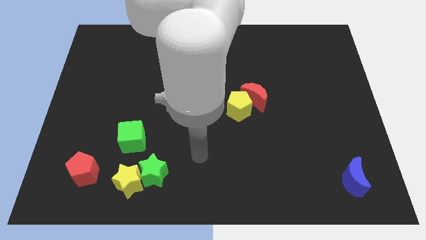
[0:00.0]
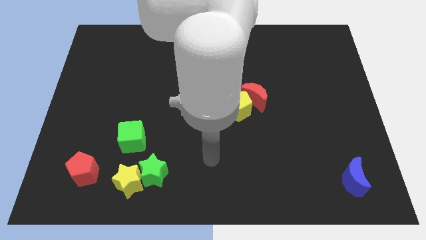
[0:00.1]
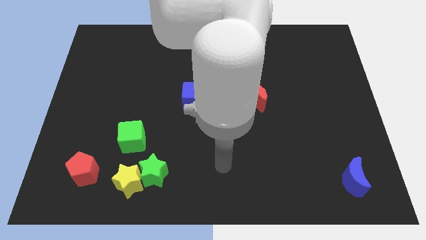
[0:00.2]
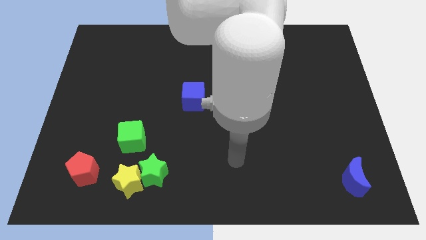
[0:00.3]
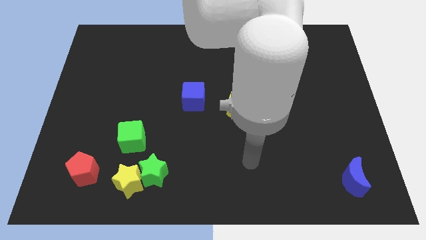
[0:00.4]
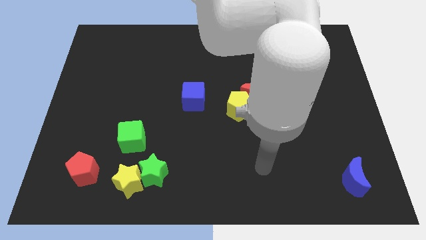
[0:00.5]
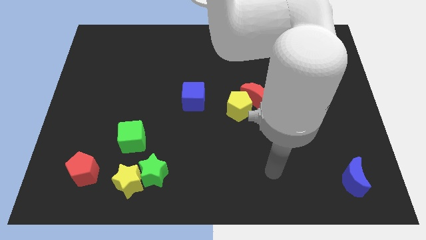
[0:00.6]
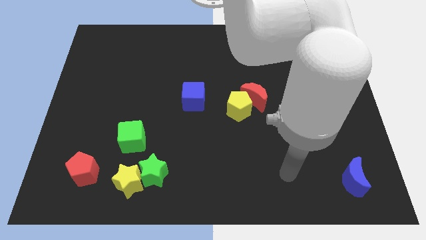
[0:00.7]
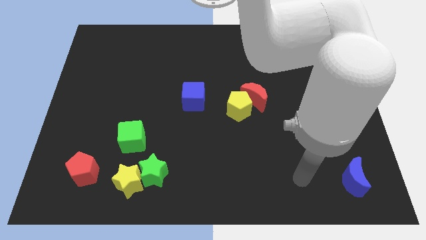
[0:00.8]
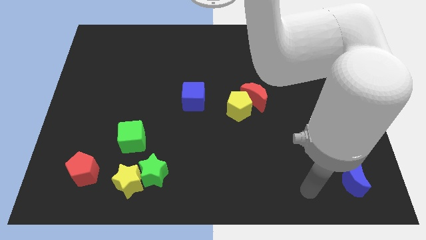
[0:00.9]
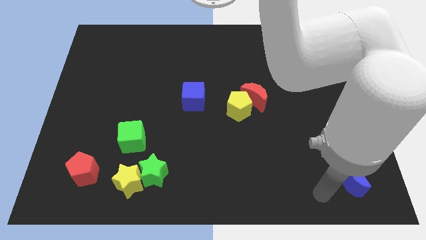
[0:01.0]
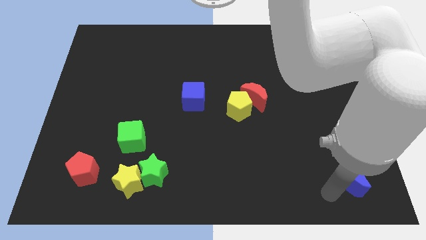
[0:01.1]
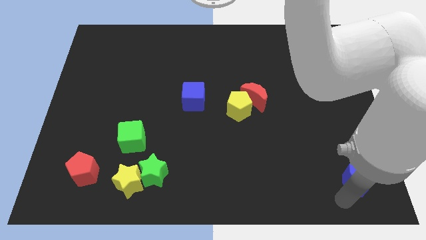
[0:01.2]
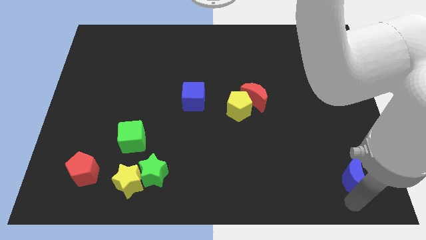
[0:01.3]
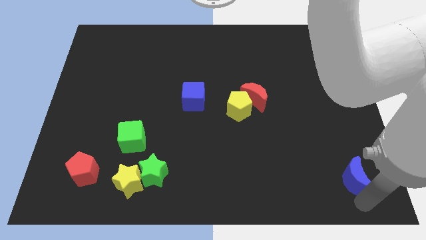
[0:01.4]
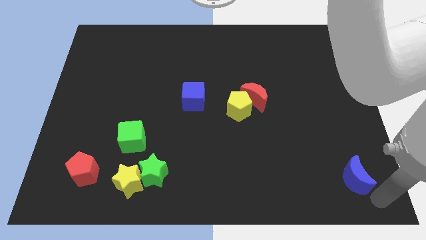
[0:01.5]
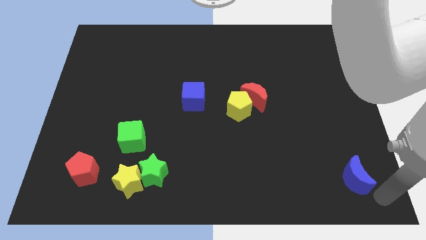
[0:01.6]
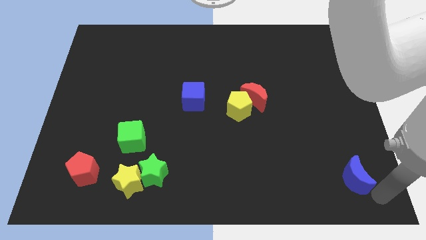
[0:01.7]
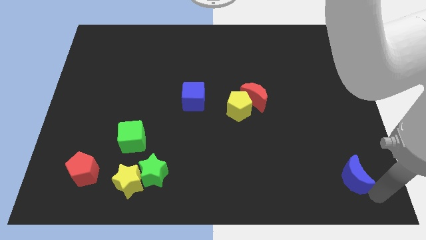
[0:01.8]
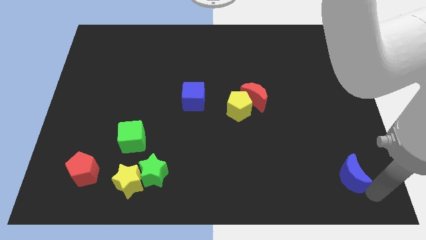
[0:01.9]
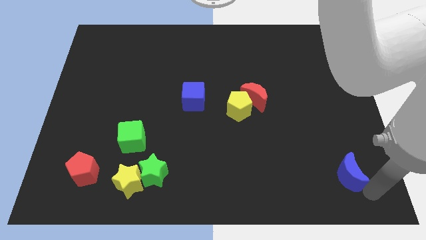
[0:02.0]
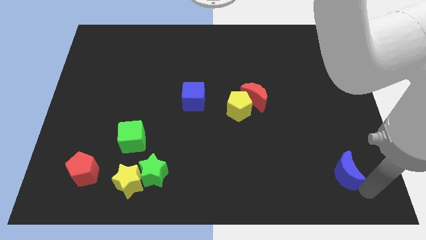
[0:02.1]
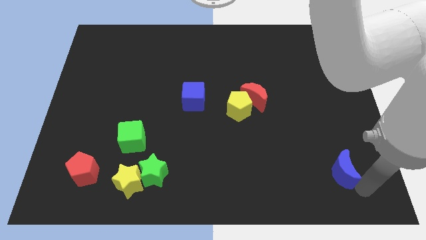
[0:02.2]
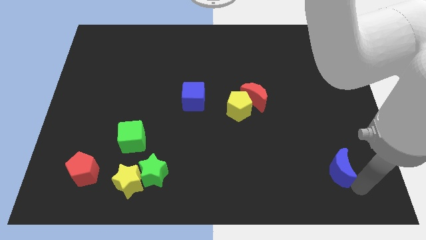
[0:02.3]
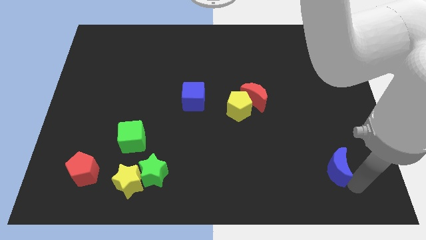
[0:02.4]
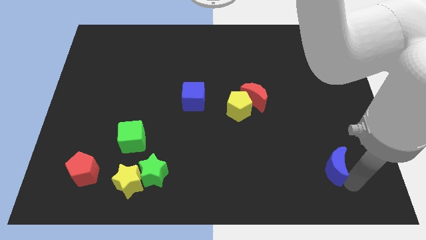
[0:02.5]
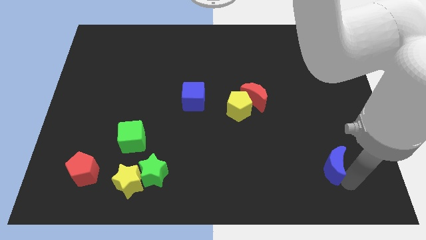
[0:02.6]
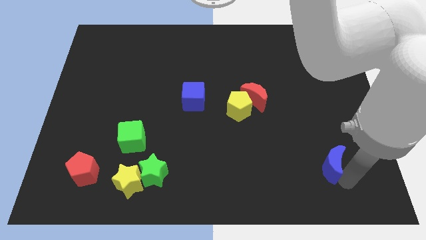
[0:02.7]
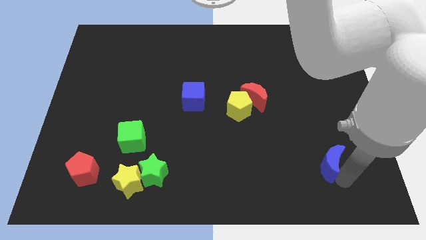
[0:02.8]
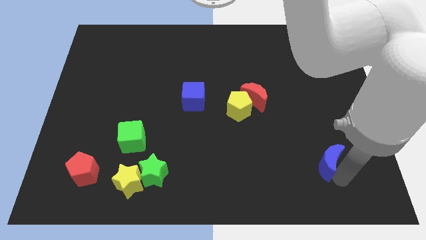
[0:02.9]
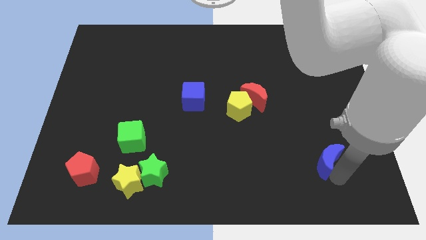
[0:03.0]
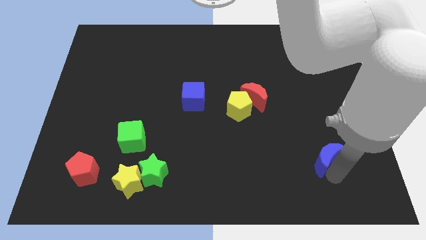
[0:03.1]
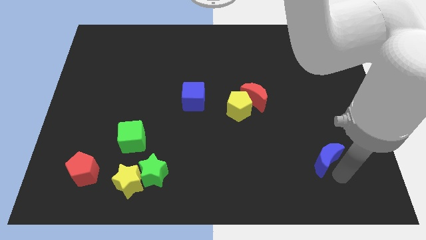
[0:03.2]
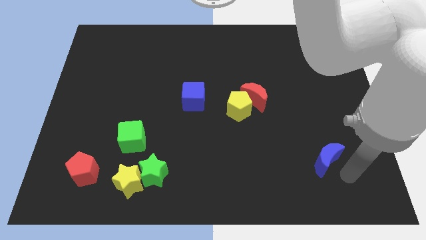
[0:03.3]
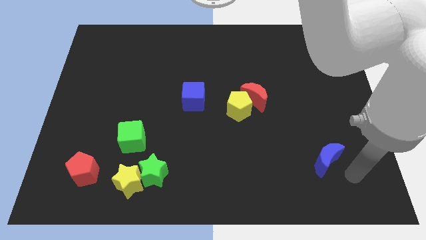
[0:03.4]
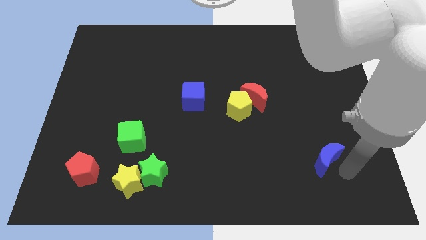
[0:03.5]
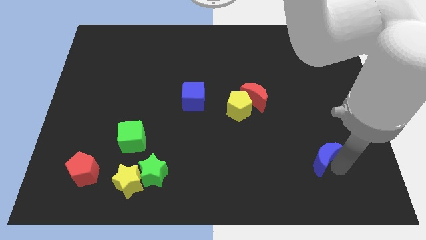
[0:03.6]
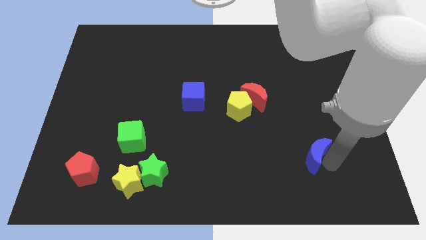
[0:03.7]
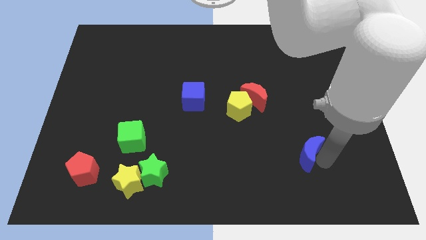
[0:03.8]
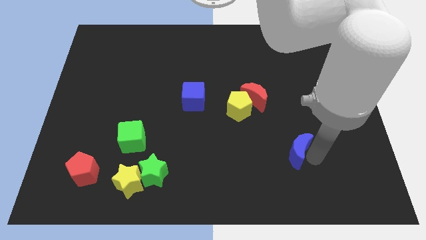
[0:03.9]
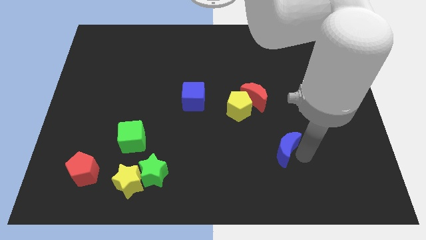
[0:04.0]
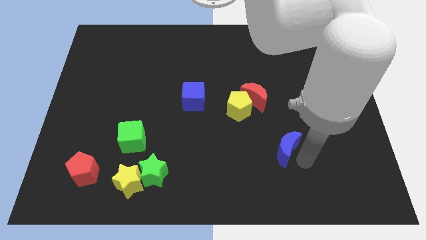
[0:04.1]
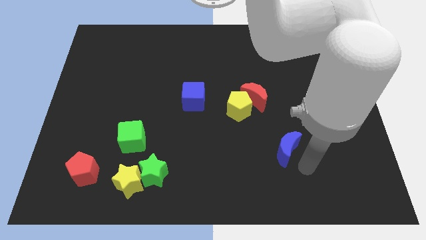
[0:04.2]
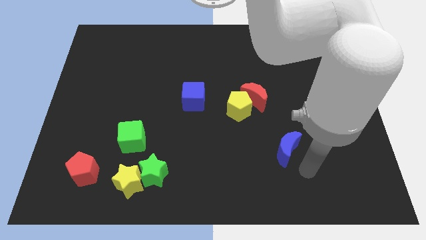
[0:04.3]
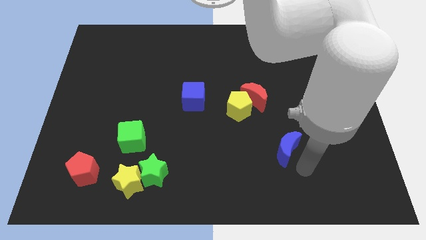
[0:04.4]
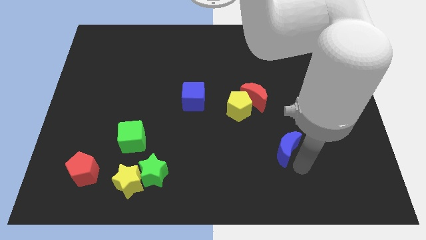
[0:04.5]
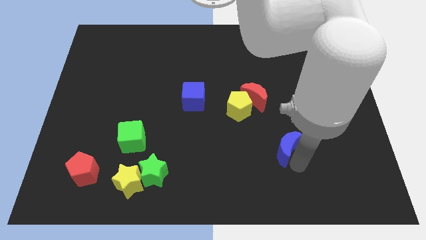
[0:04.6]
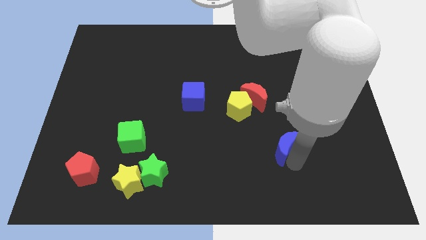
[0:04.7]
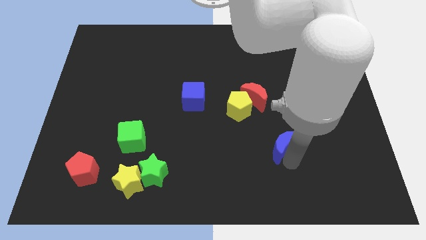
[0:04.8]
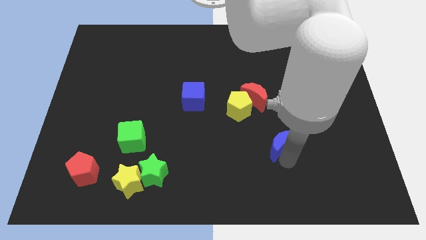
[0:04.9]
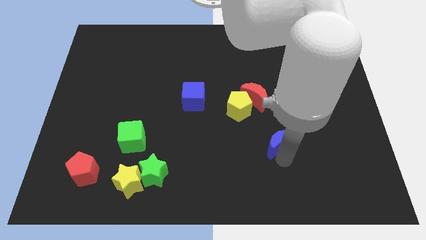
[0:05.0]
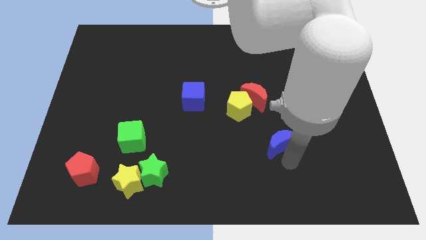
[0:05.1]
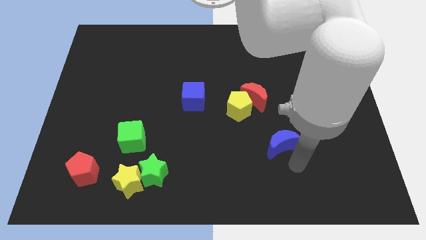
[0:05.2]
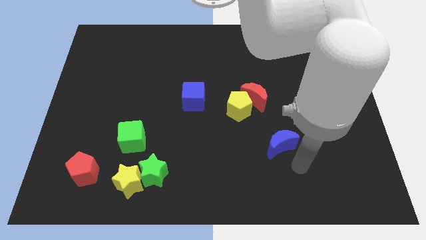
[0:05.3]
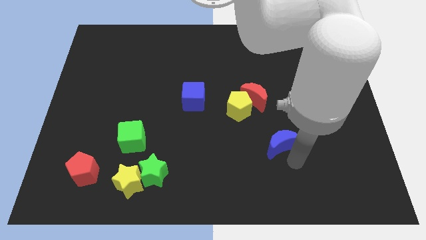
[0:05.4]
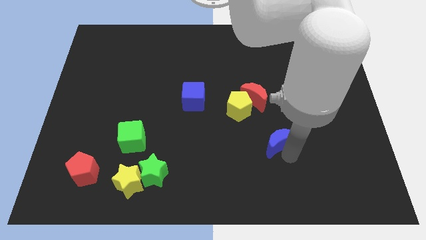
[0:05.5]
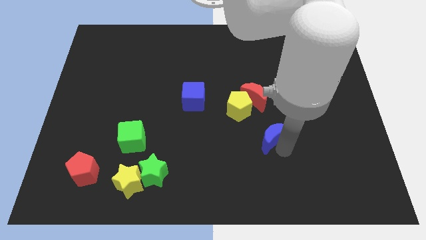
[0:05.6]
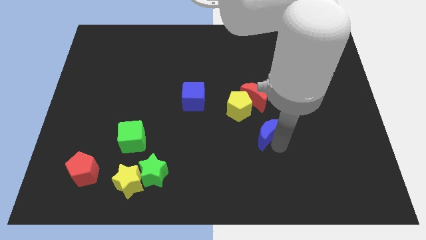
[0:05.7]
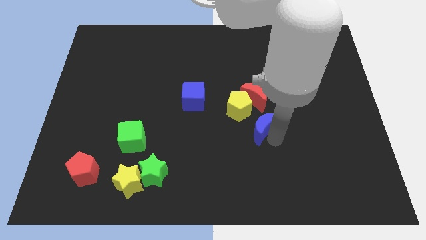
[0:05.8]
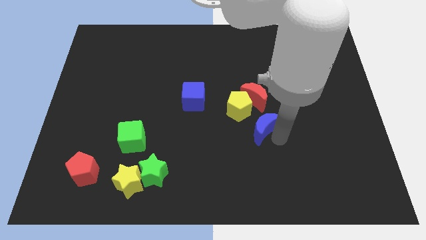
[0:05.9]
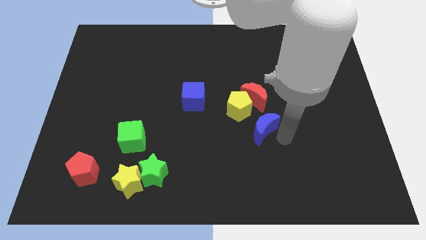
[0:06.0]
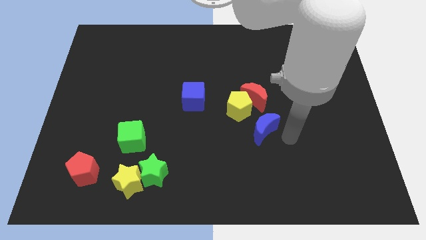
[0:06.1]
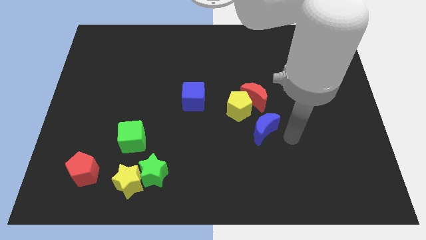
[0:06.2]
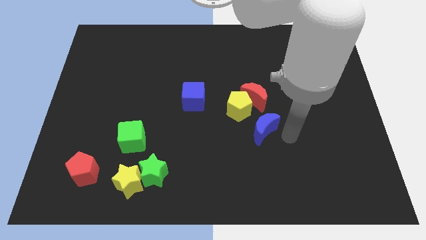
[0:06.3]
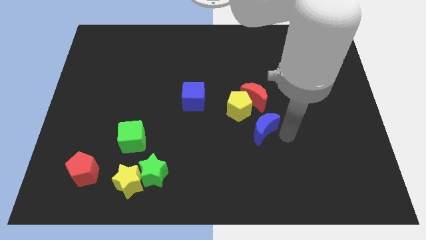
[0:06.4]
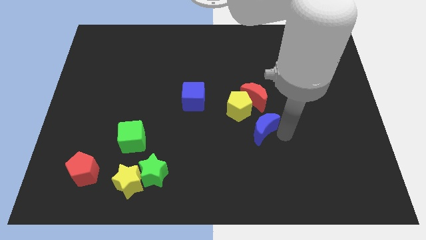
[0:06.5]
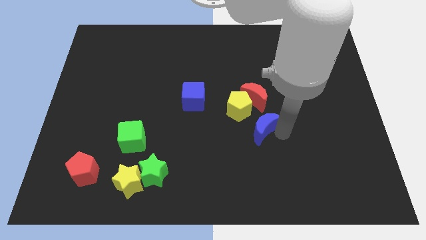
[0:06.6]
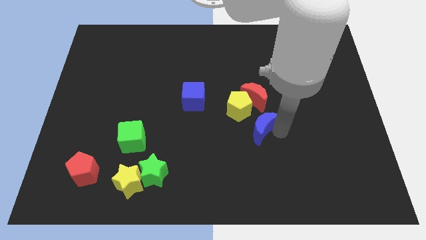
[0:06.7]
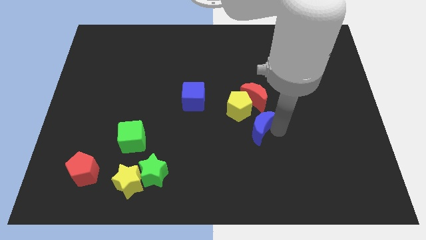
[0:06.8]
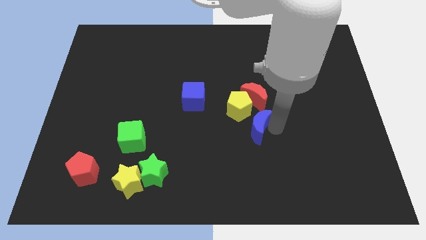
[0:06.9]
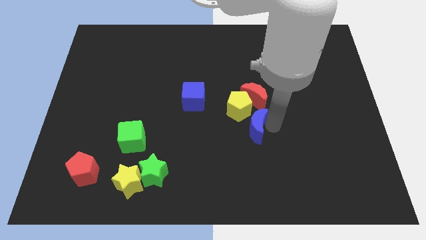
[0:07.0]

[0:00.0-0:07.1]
move the blue moon to the center of the board
